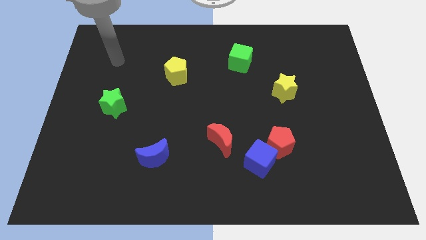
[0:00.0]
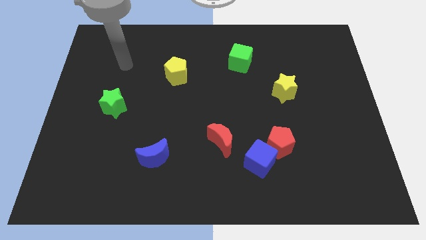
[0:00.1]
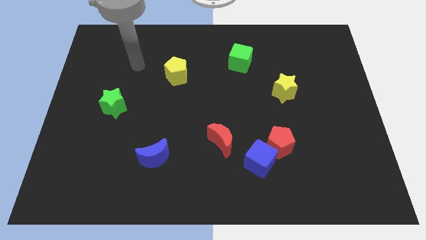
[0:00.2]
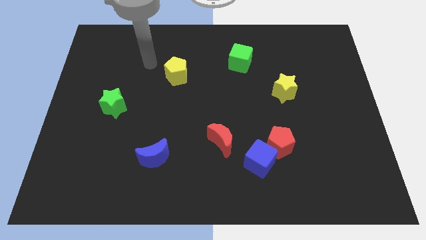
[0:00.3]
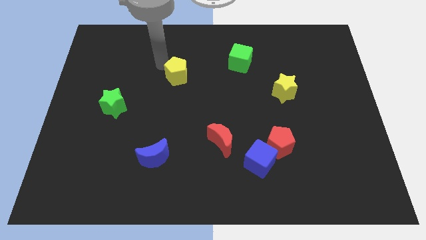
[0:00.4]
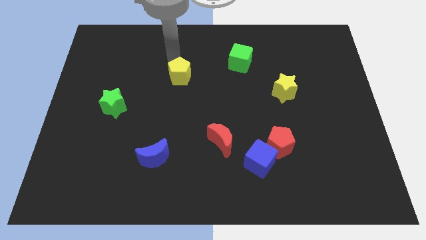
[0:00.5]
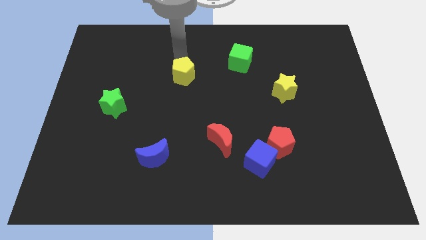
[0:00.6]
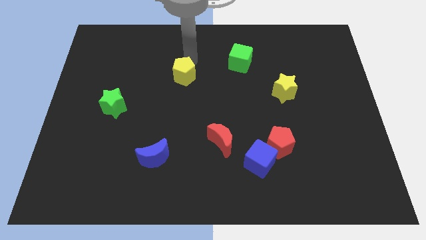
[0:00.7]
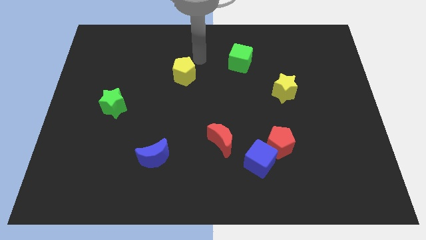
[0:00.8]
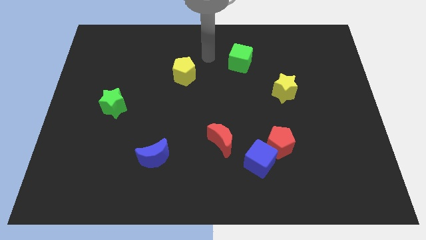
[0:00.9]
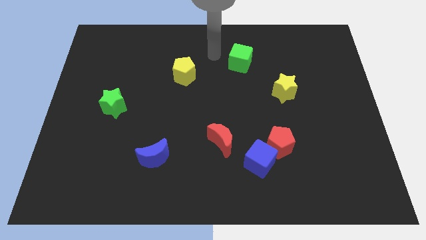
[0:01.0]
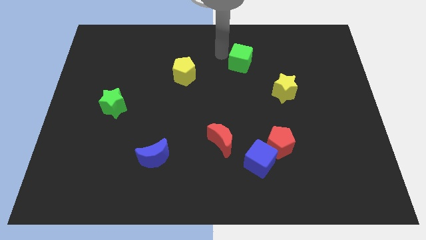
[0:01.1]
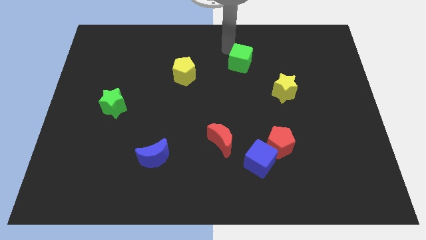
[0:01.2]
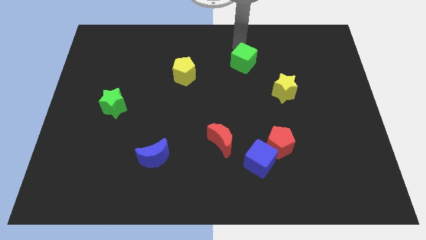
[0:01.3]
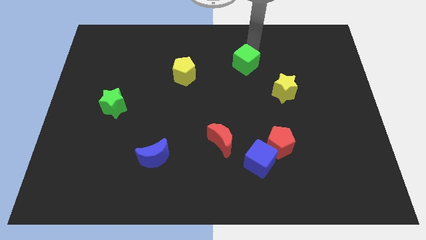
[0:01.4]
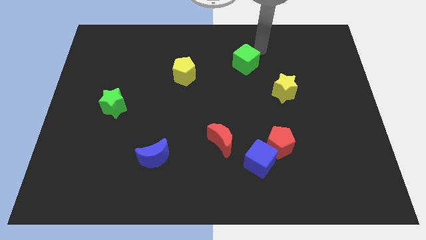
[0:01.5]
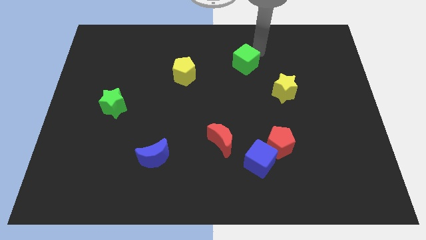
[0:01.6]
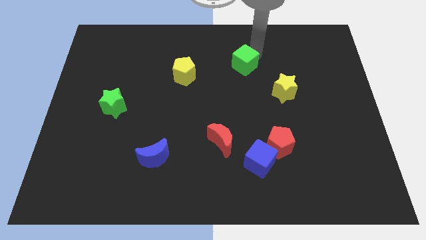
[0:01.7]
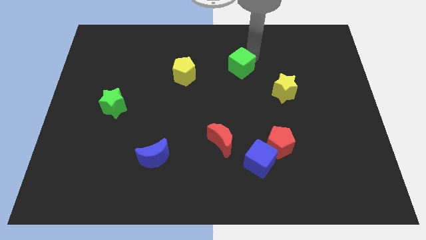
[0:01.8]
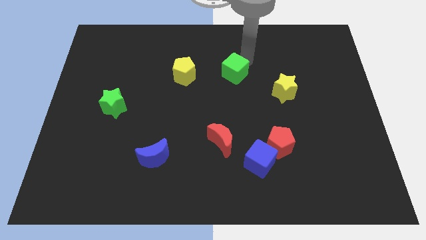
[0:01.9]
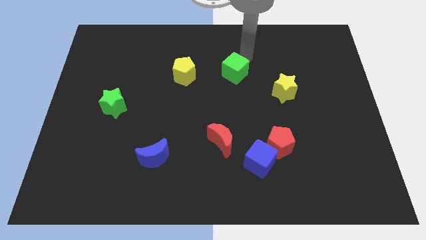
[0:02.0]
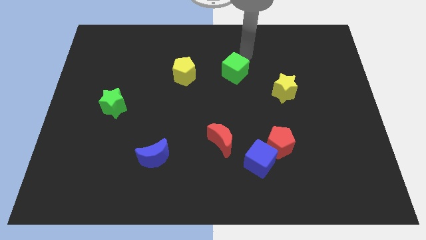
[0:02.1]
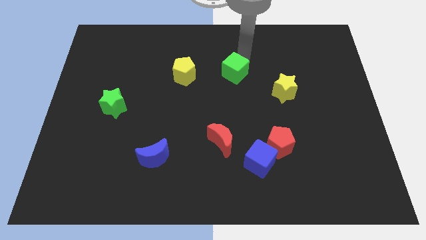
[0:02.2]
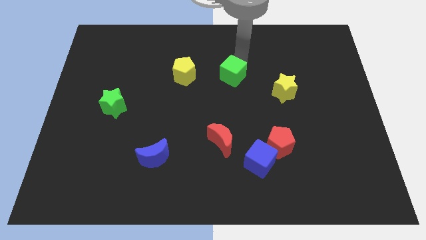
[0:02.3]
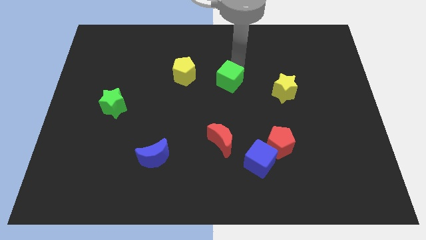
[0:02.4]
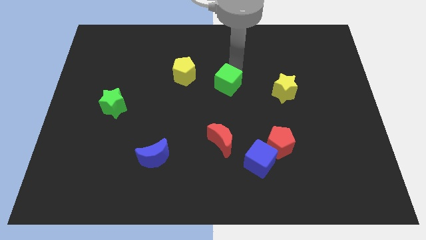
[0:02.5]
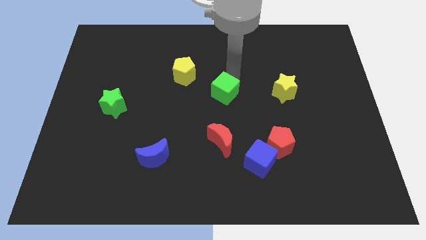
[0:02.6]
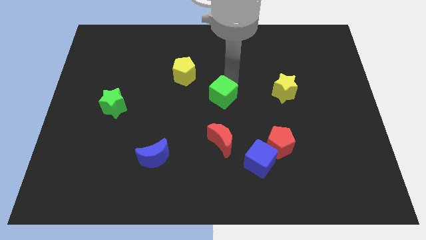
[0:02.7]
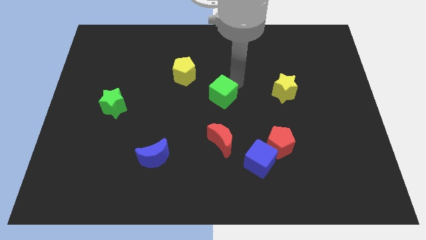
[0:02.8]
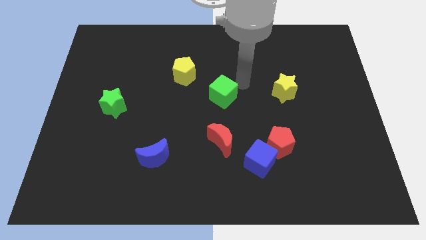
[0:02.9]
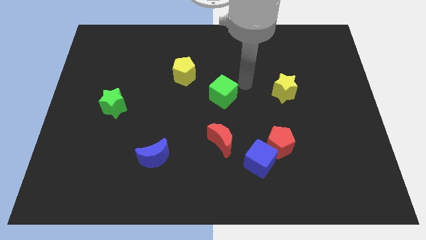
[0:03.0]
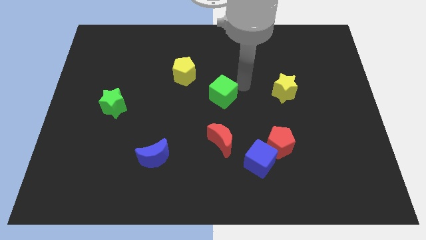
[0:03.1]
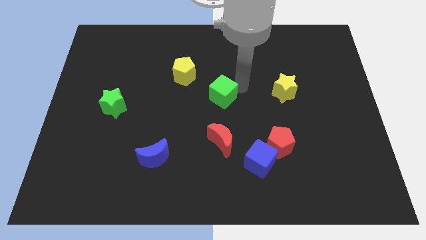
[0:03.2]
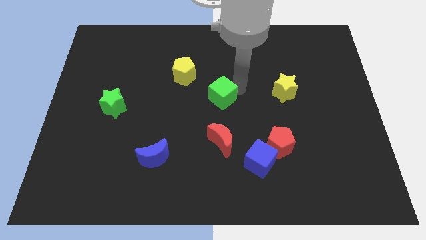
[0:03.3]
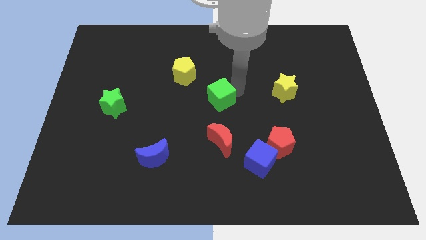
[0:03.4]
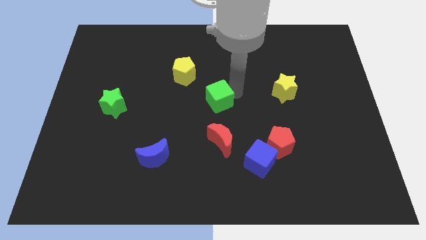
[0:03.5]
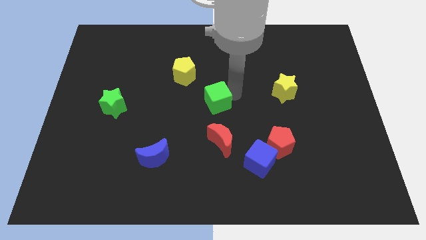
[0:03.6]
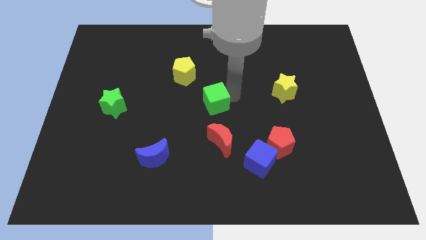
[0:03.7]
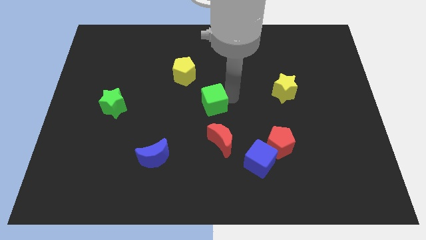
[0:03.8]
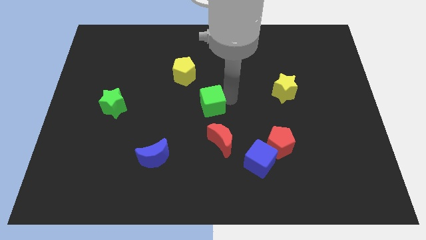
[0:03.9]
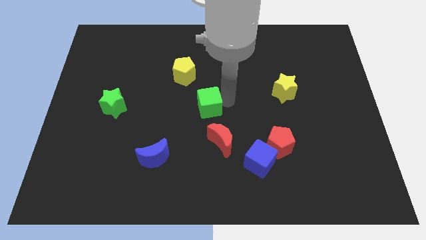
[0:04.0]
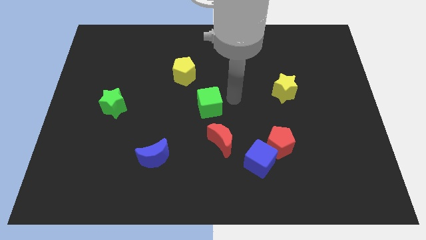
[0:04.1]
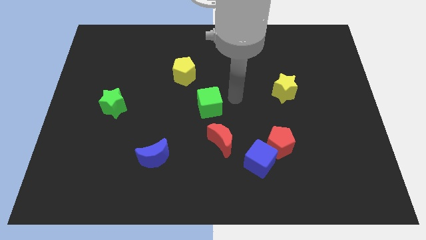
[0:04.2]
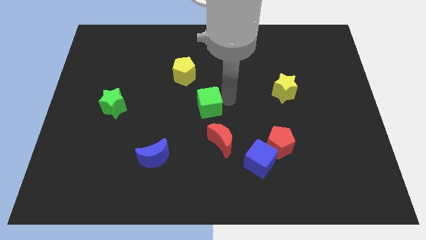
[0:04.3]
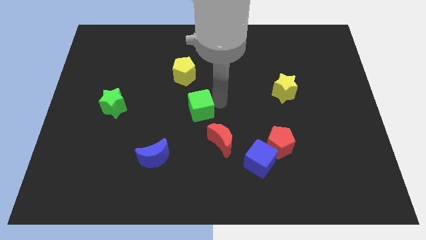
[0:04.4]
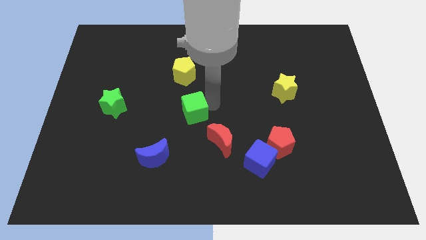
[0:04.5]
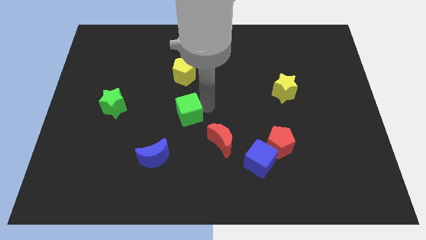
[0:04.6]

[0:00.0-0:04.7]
move the green cube diagonally down and left

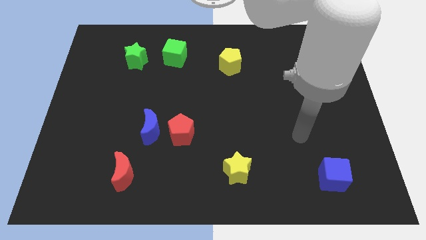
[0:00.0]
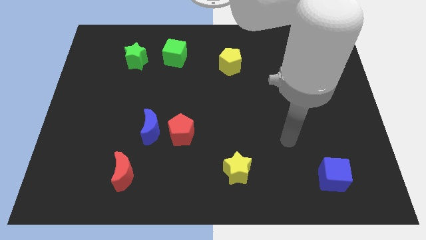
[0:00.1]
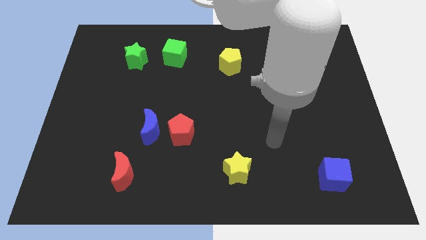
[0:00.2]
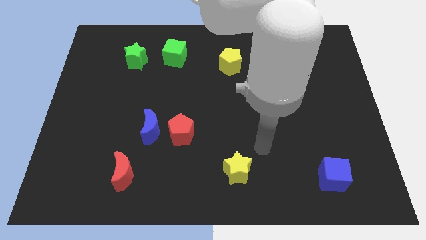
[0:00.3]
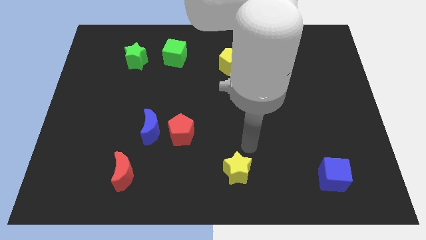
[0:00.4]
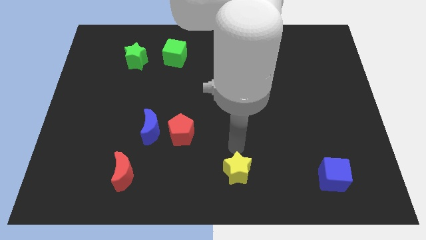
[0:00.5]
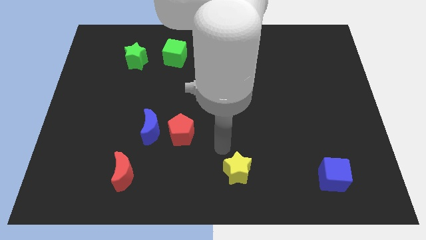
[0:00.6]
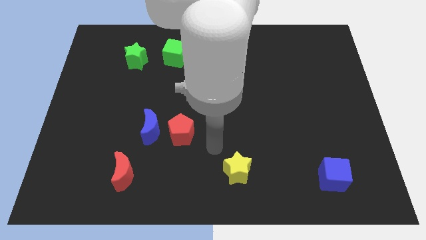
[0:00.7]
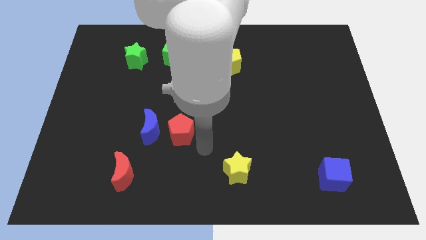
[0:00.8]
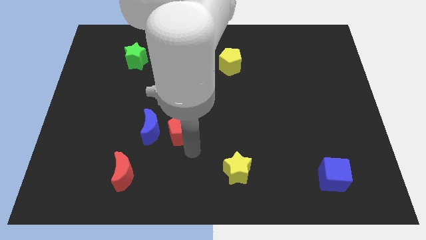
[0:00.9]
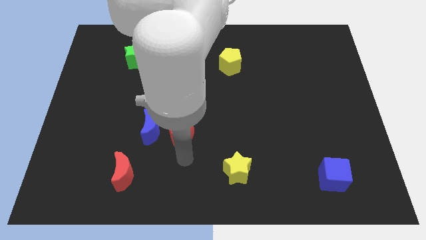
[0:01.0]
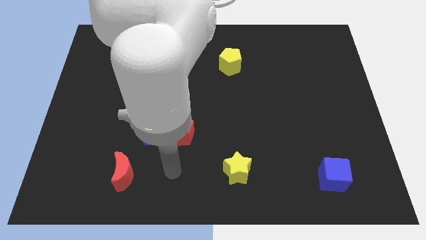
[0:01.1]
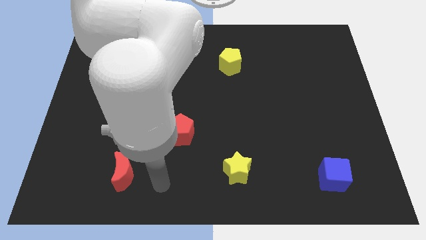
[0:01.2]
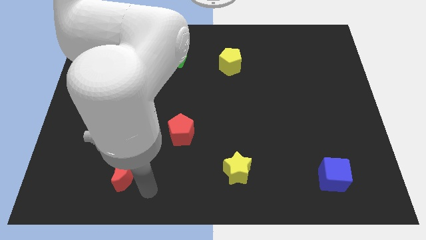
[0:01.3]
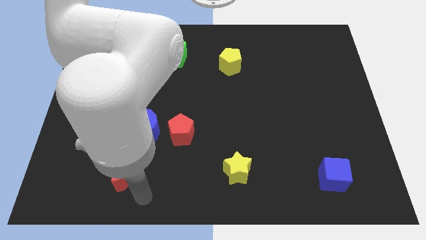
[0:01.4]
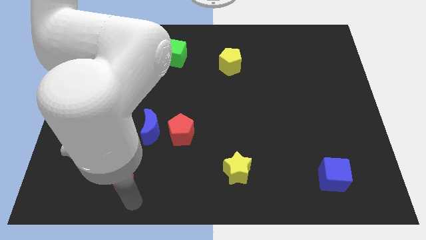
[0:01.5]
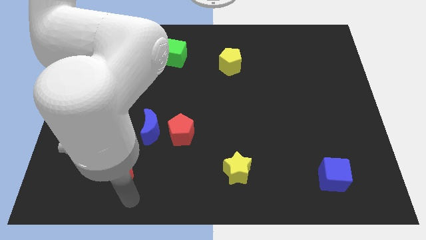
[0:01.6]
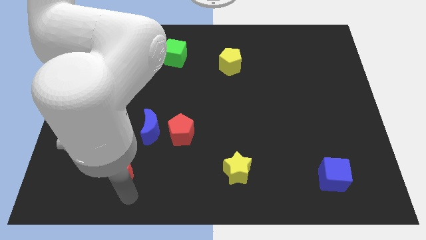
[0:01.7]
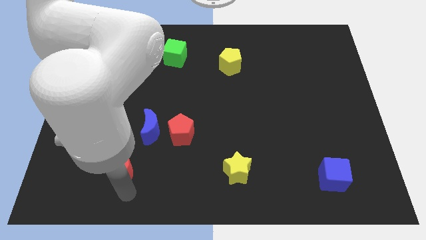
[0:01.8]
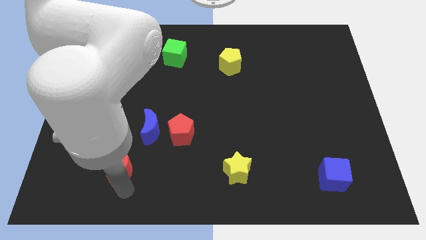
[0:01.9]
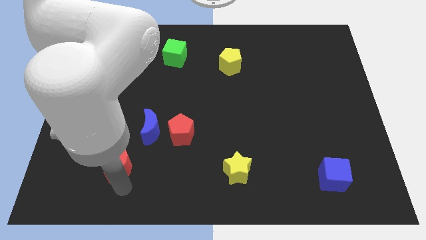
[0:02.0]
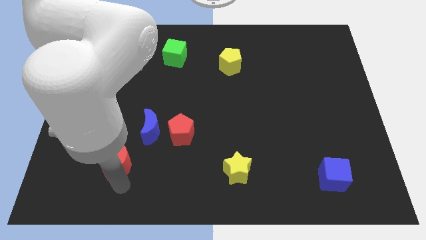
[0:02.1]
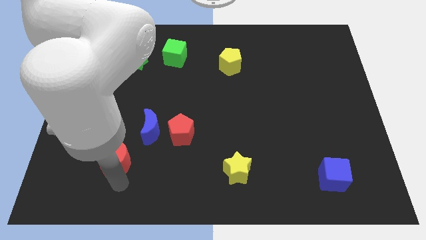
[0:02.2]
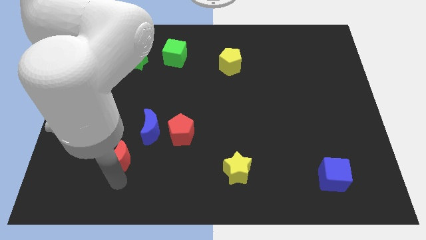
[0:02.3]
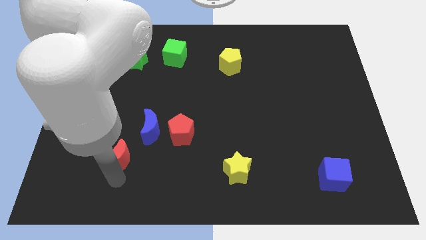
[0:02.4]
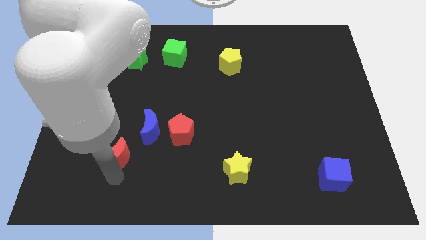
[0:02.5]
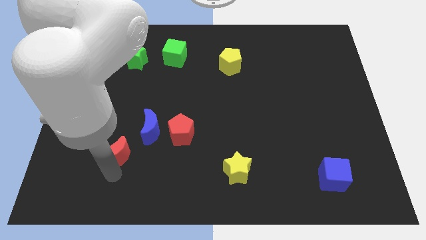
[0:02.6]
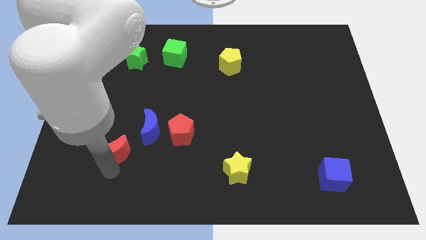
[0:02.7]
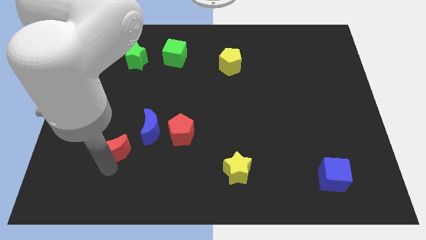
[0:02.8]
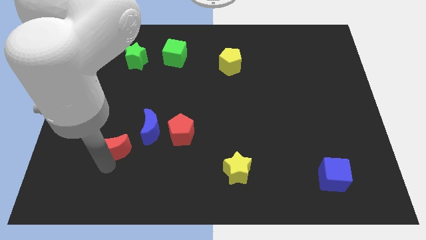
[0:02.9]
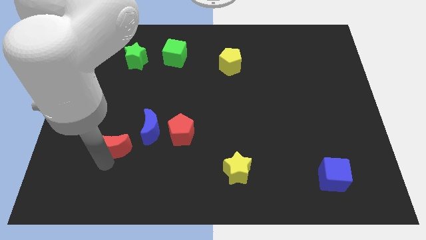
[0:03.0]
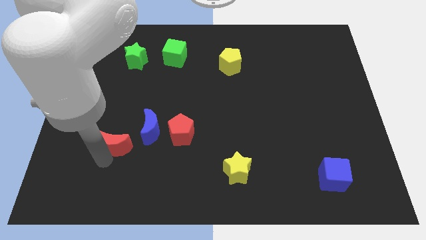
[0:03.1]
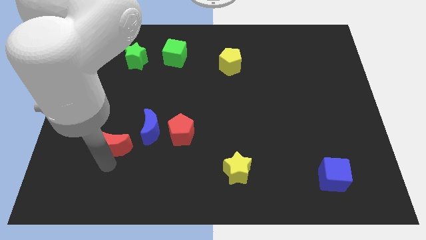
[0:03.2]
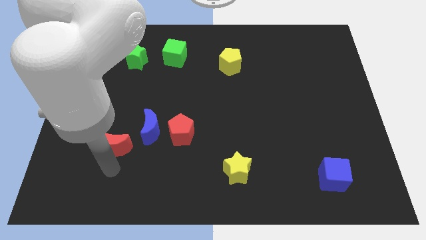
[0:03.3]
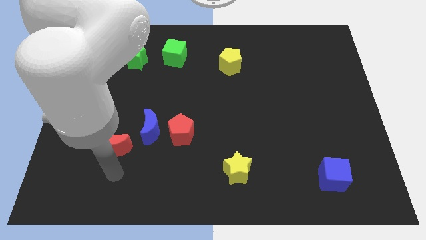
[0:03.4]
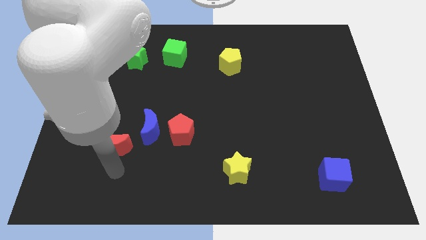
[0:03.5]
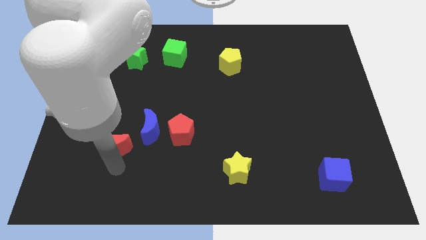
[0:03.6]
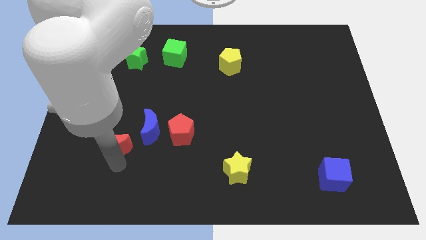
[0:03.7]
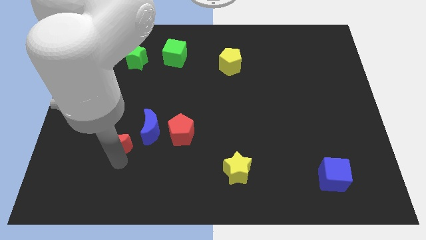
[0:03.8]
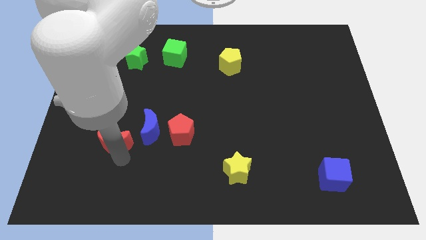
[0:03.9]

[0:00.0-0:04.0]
slide the red moon upwards slightly
